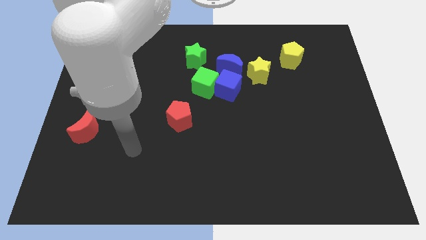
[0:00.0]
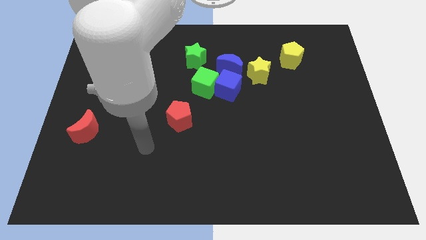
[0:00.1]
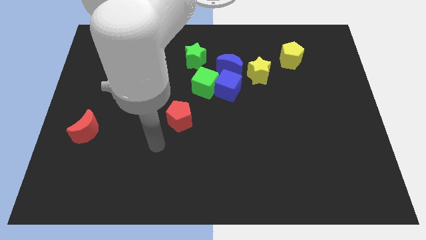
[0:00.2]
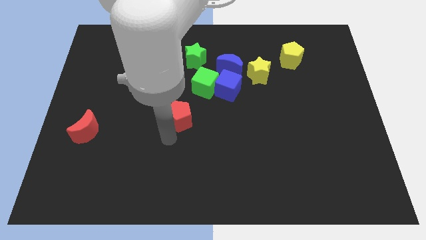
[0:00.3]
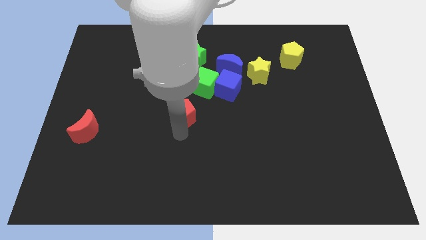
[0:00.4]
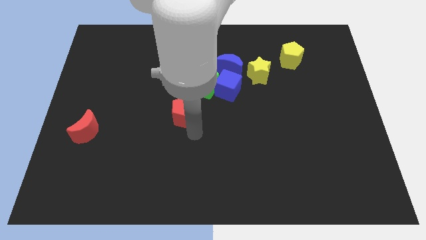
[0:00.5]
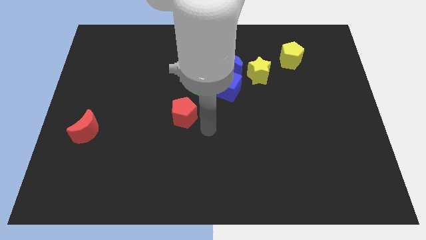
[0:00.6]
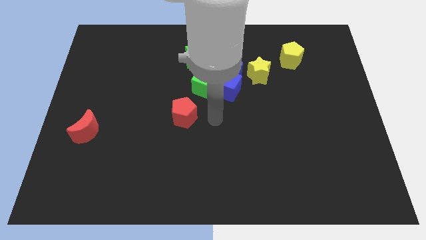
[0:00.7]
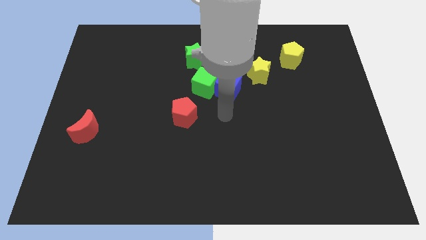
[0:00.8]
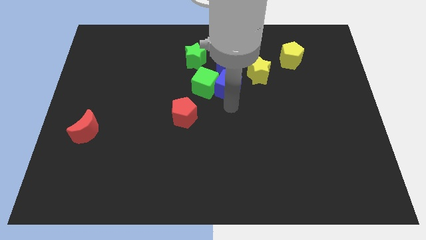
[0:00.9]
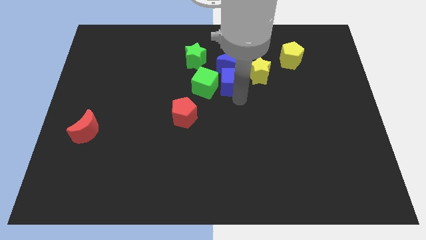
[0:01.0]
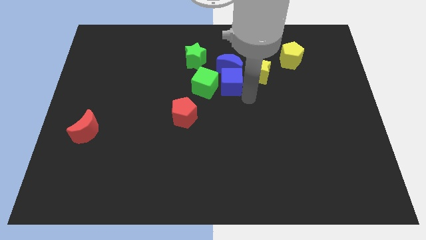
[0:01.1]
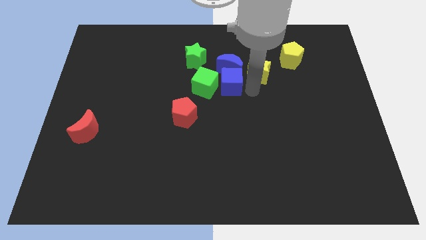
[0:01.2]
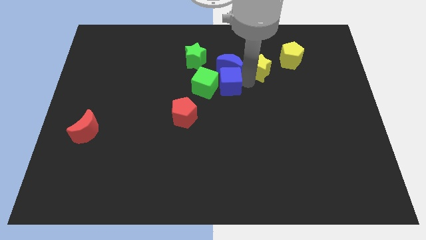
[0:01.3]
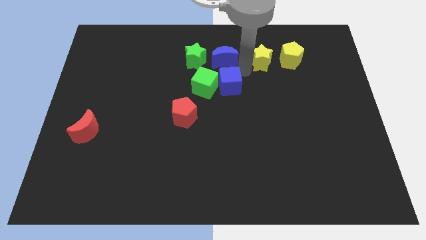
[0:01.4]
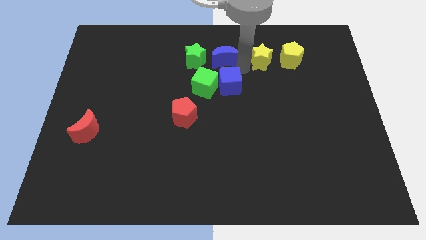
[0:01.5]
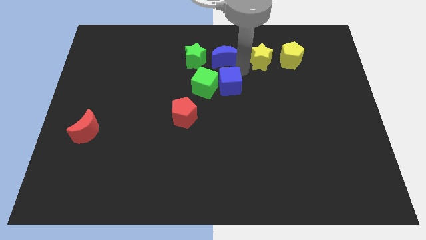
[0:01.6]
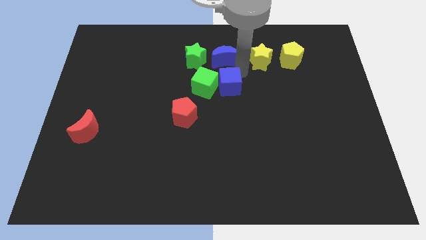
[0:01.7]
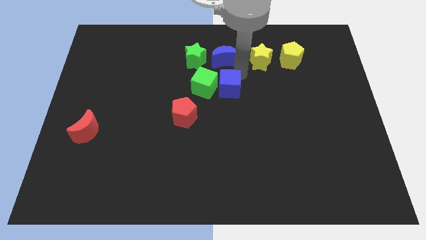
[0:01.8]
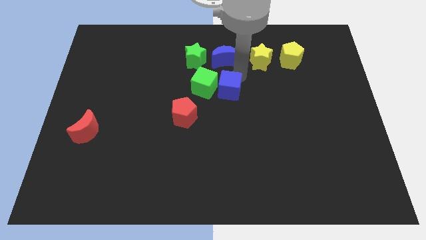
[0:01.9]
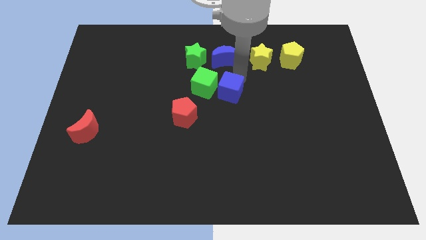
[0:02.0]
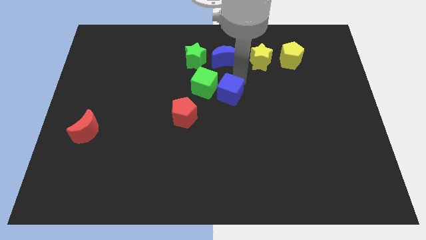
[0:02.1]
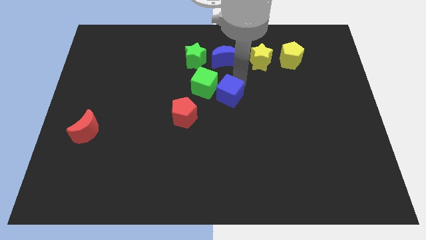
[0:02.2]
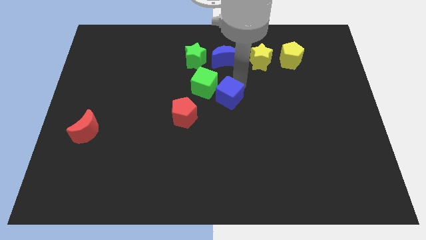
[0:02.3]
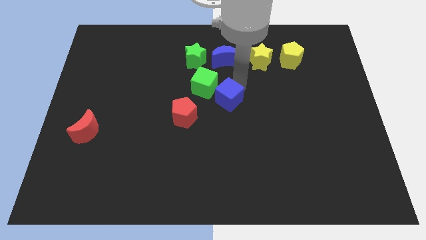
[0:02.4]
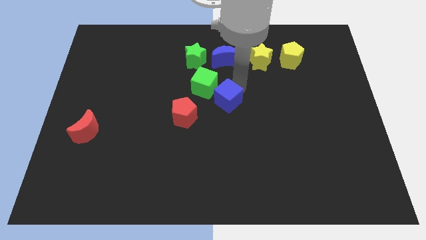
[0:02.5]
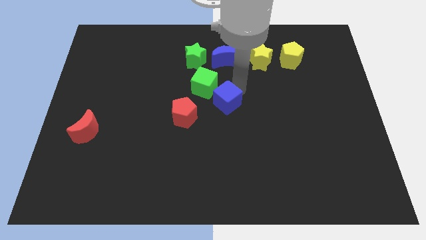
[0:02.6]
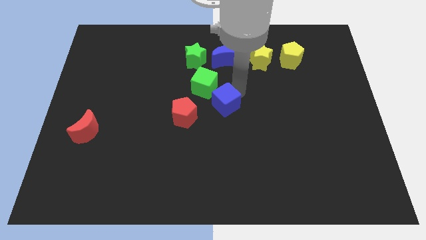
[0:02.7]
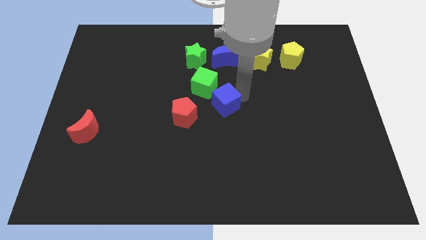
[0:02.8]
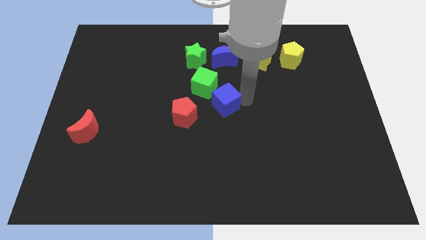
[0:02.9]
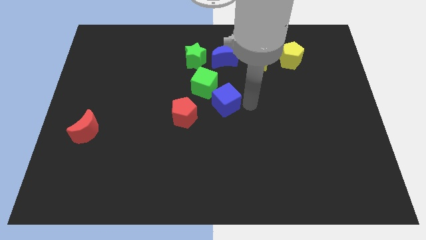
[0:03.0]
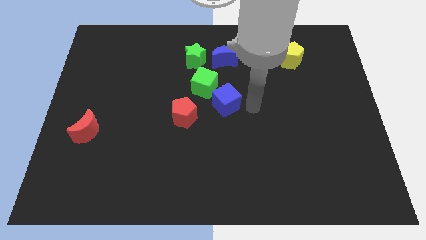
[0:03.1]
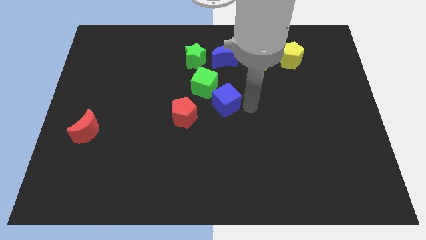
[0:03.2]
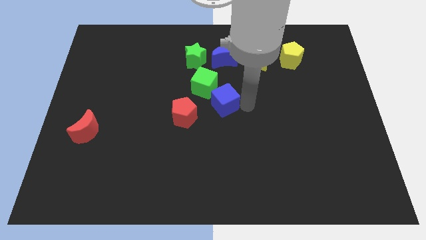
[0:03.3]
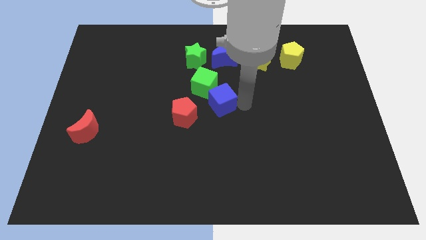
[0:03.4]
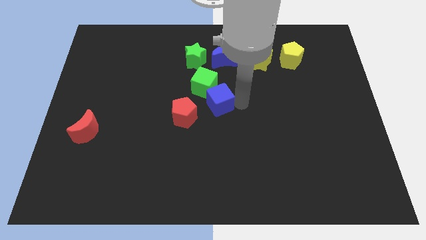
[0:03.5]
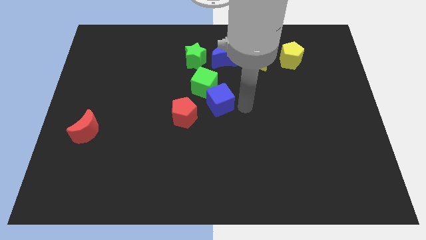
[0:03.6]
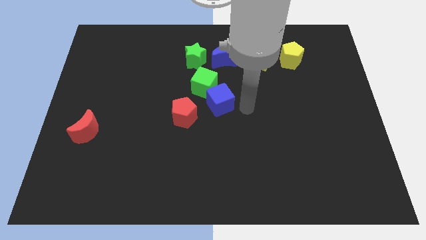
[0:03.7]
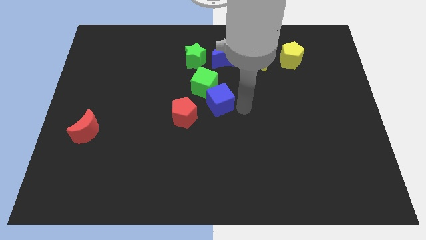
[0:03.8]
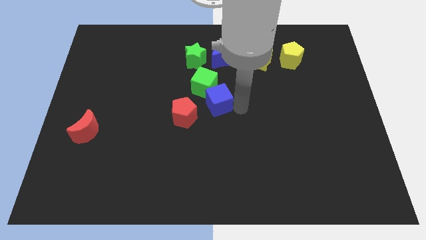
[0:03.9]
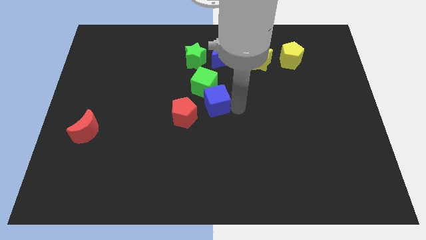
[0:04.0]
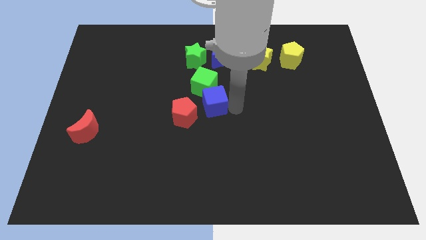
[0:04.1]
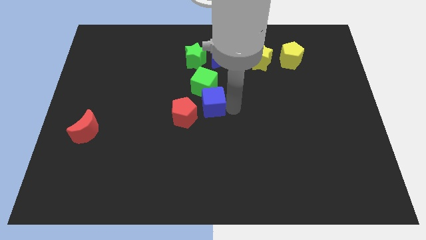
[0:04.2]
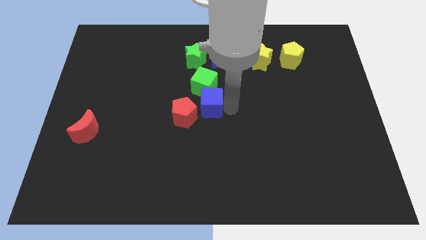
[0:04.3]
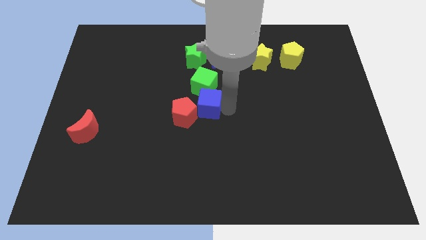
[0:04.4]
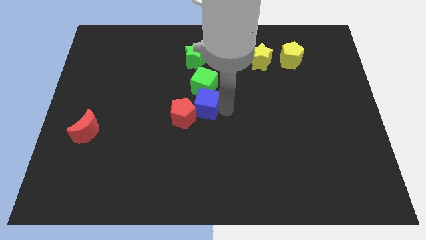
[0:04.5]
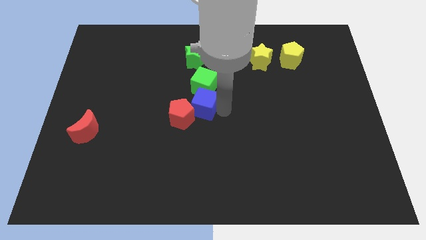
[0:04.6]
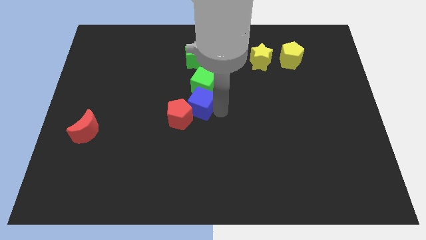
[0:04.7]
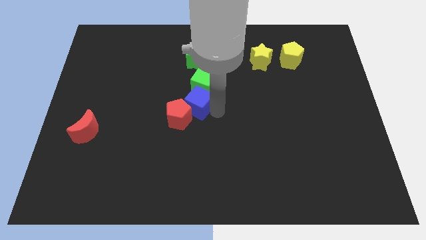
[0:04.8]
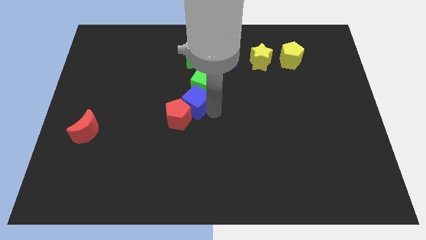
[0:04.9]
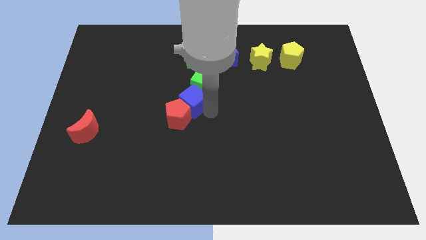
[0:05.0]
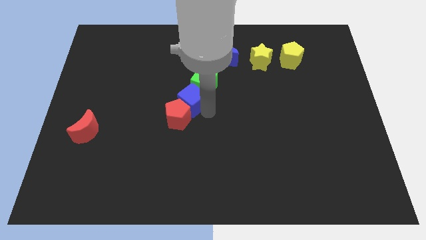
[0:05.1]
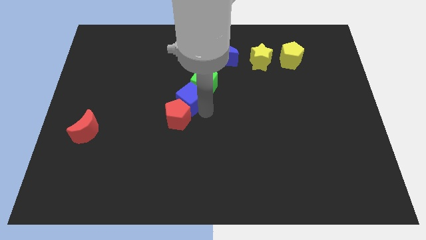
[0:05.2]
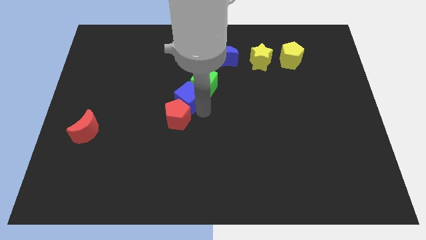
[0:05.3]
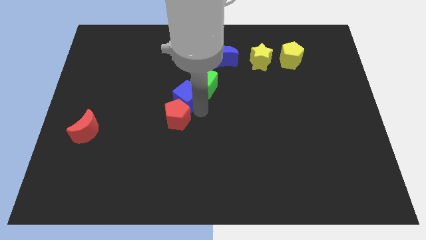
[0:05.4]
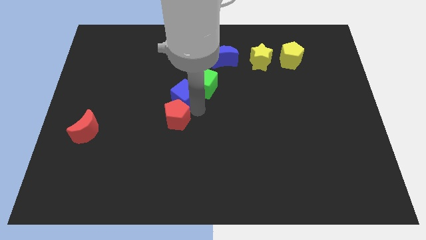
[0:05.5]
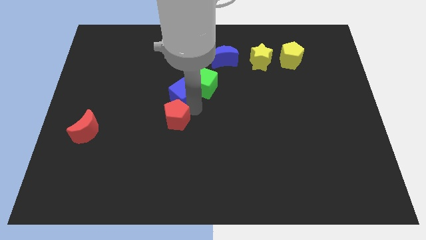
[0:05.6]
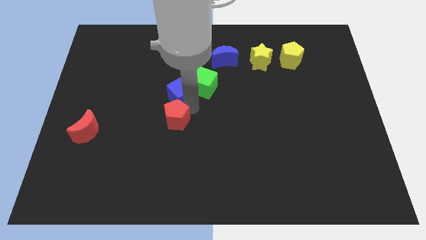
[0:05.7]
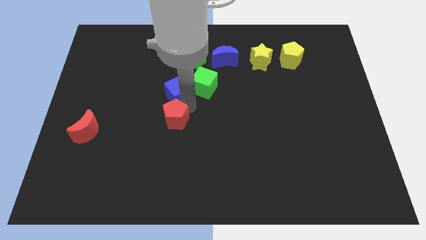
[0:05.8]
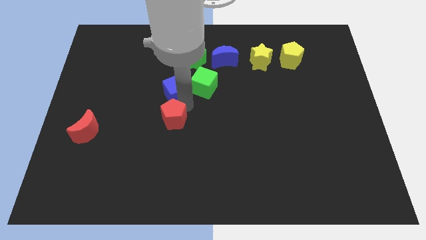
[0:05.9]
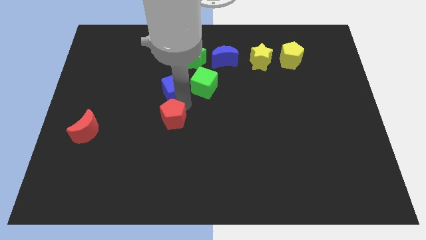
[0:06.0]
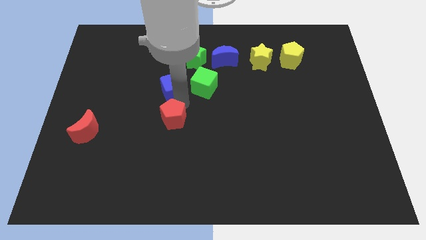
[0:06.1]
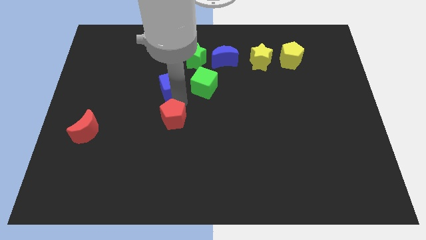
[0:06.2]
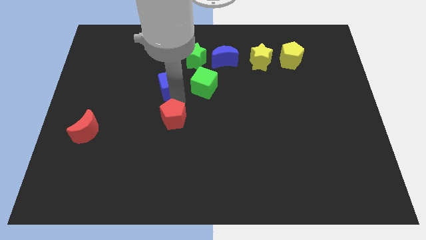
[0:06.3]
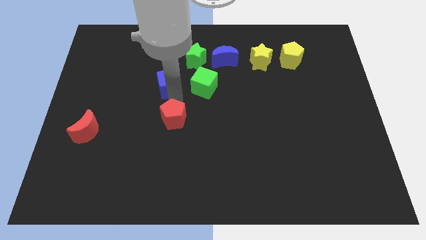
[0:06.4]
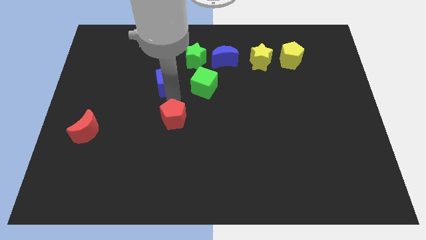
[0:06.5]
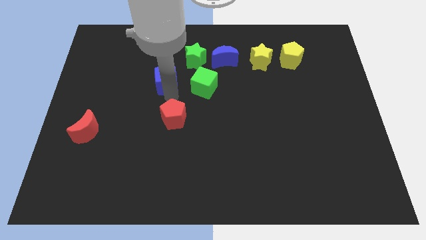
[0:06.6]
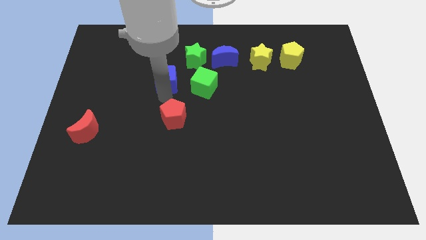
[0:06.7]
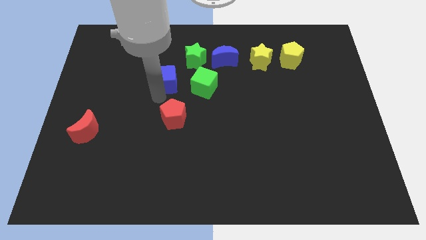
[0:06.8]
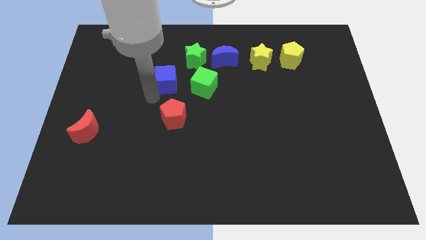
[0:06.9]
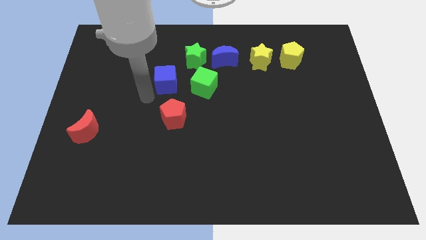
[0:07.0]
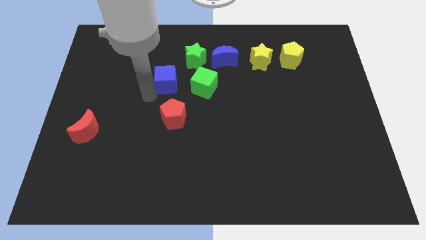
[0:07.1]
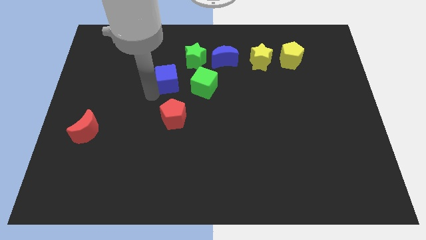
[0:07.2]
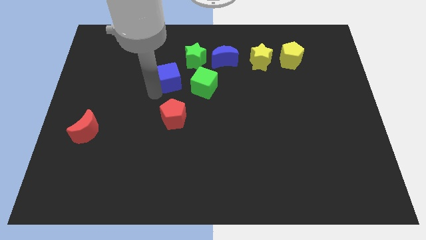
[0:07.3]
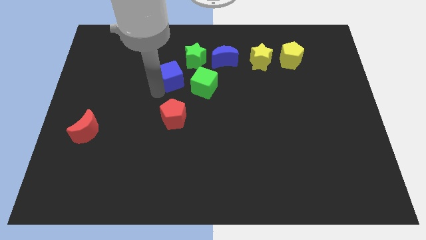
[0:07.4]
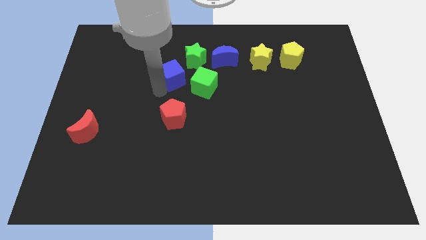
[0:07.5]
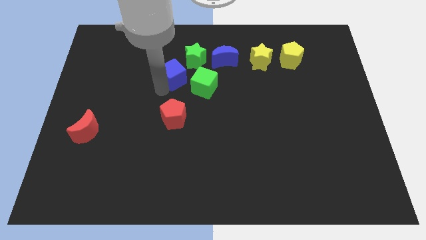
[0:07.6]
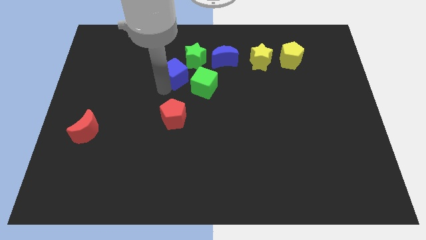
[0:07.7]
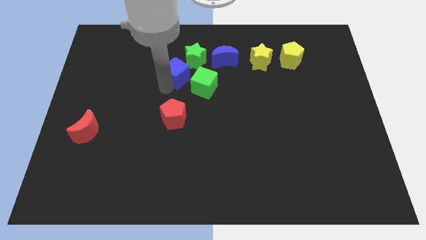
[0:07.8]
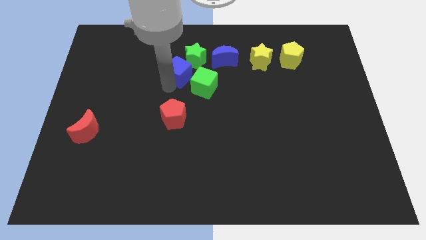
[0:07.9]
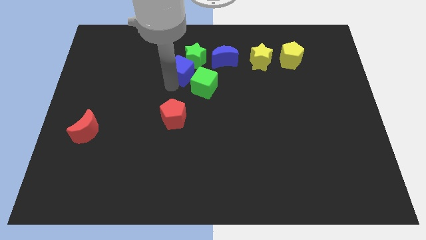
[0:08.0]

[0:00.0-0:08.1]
slide the blue cube next to the green star
